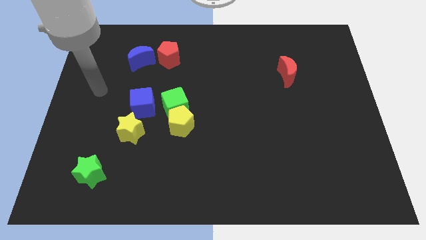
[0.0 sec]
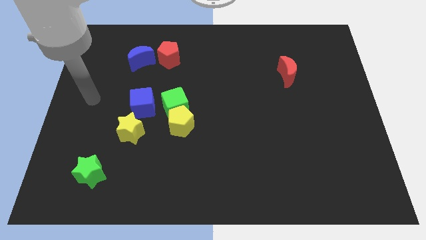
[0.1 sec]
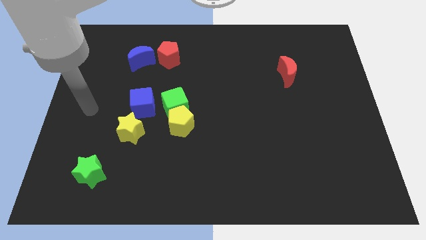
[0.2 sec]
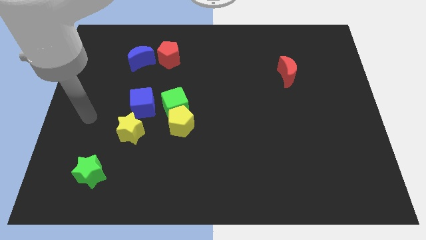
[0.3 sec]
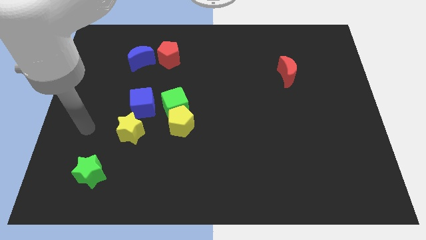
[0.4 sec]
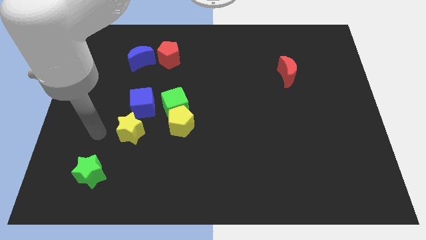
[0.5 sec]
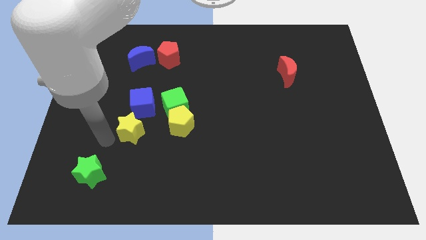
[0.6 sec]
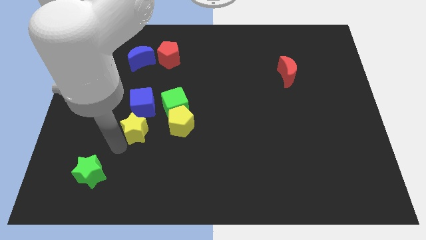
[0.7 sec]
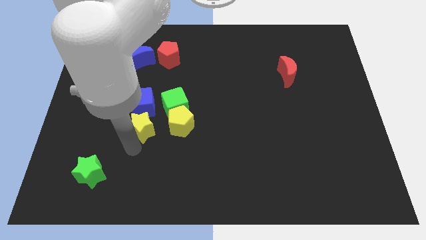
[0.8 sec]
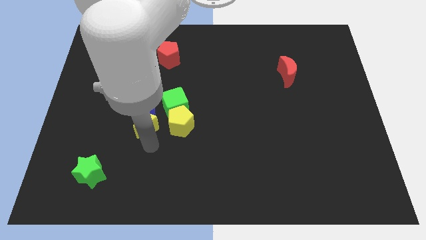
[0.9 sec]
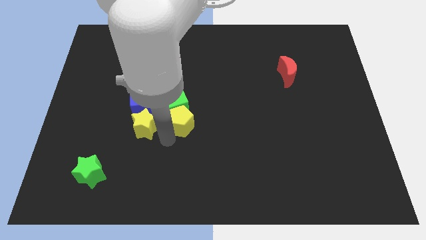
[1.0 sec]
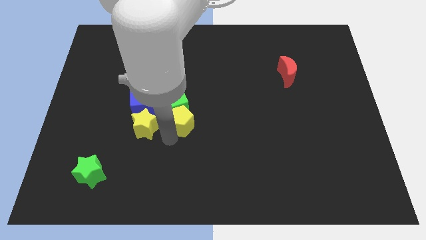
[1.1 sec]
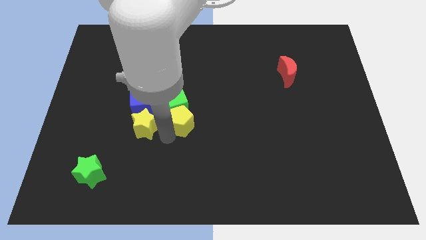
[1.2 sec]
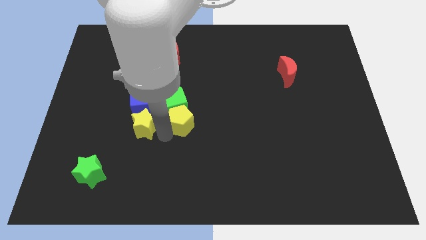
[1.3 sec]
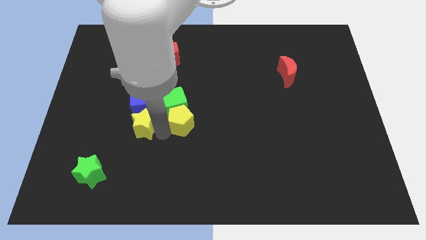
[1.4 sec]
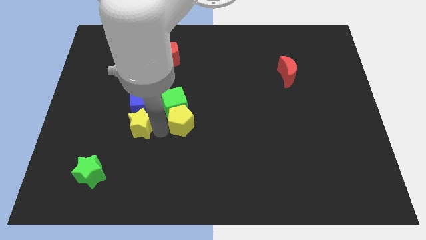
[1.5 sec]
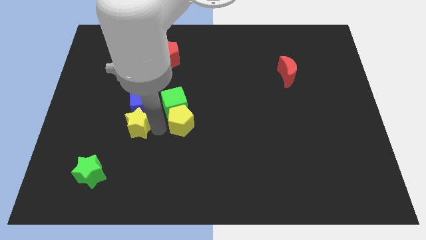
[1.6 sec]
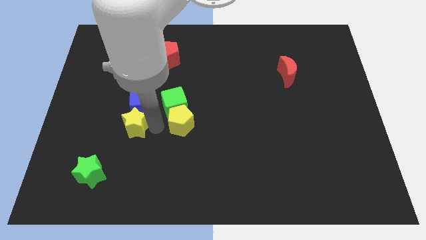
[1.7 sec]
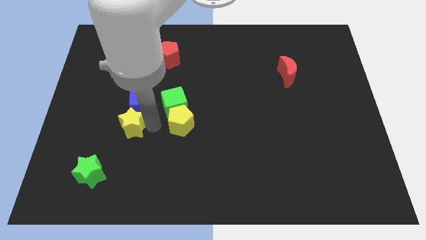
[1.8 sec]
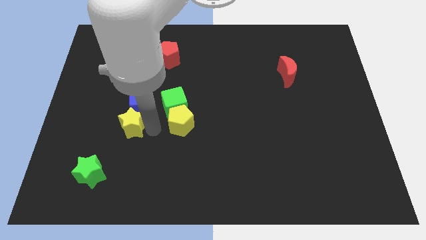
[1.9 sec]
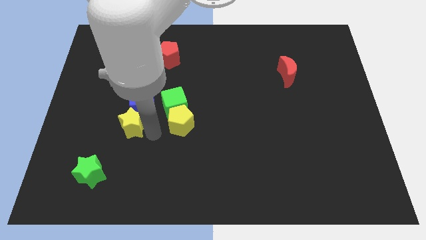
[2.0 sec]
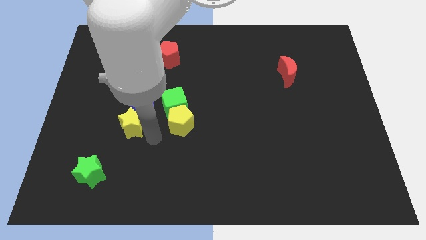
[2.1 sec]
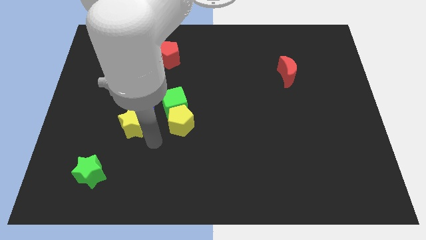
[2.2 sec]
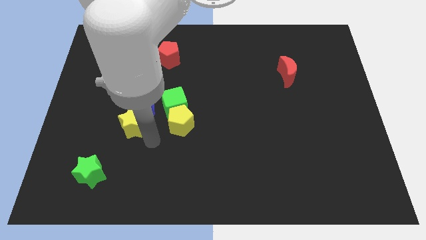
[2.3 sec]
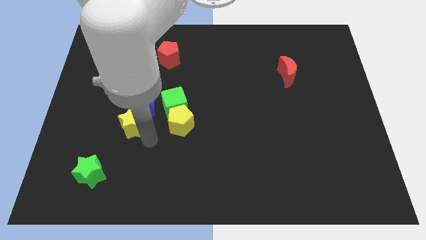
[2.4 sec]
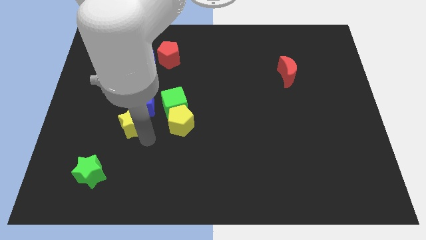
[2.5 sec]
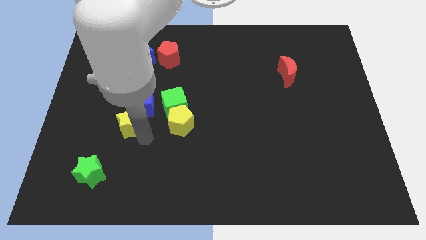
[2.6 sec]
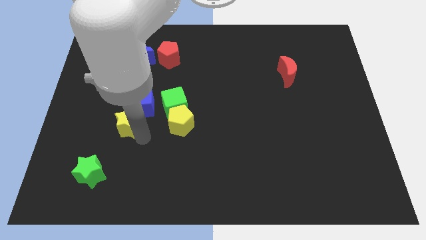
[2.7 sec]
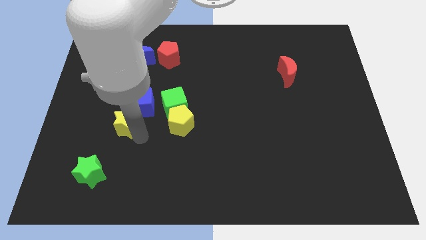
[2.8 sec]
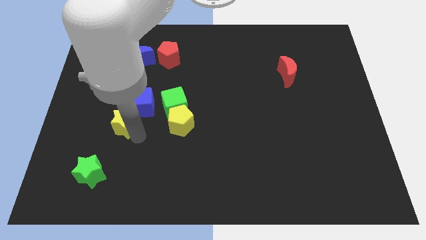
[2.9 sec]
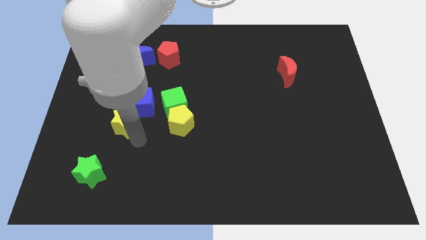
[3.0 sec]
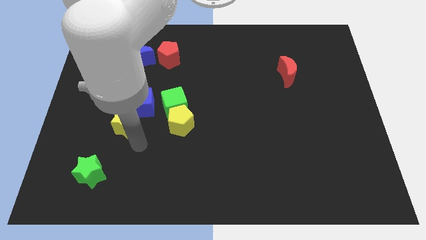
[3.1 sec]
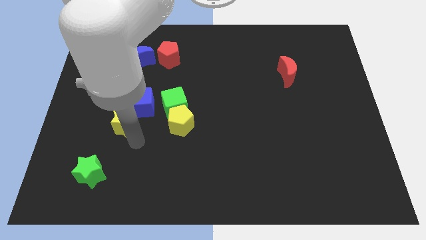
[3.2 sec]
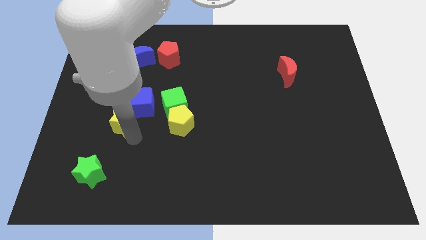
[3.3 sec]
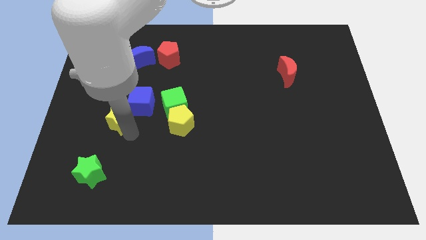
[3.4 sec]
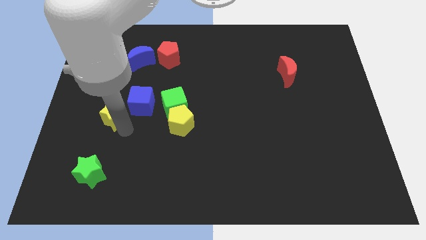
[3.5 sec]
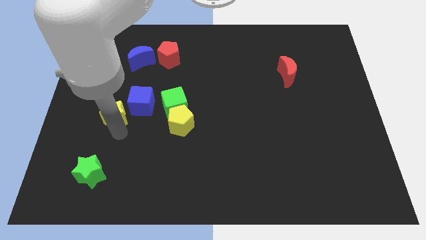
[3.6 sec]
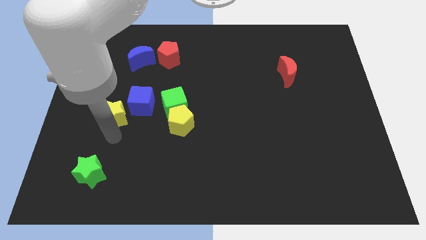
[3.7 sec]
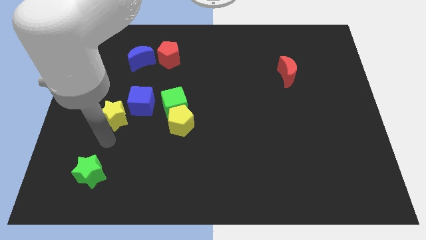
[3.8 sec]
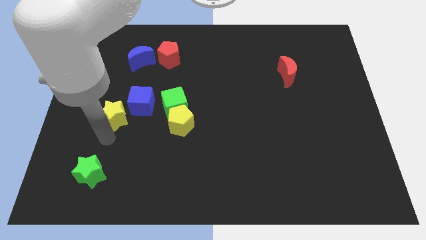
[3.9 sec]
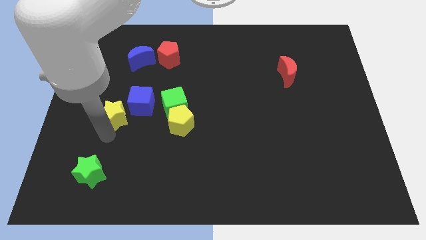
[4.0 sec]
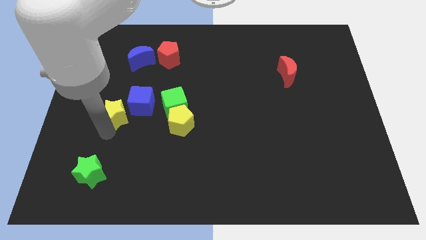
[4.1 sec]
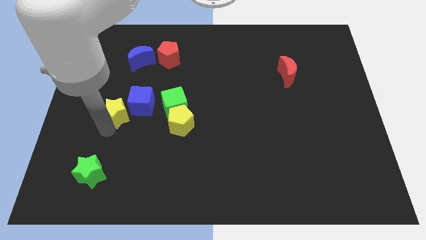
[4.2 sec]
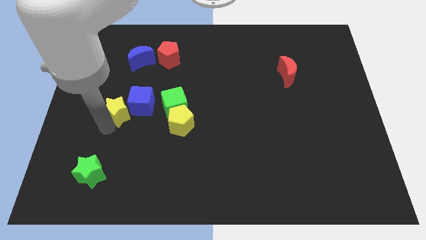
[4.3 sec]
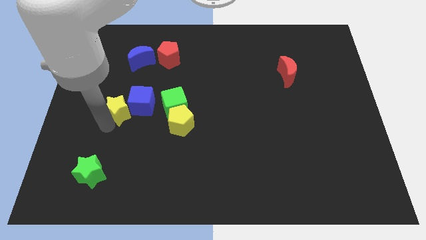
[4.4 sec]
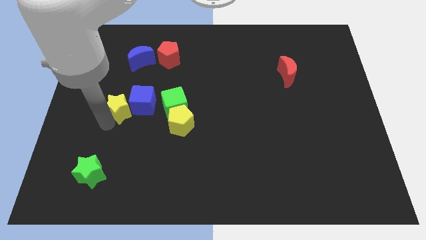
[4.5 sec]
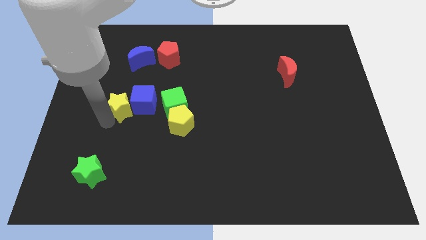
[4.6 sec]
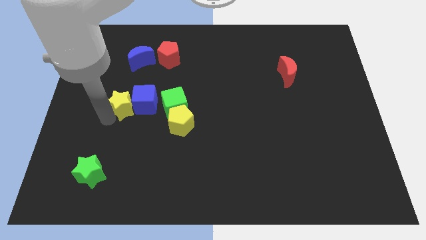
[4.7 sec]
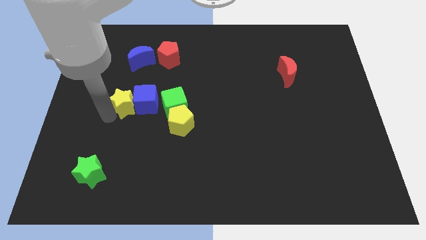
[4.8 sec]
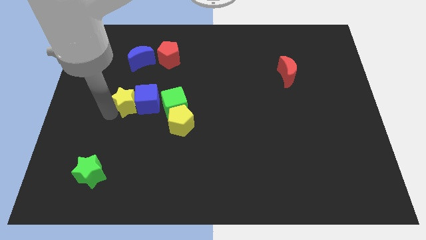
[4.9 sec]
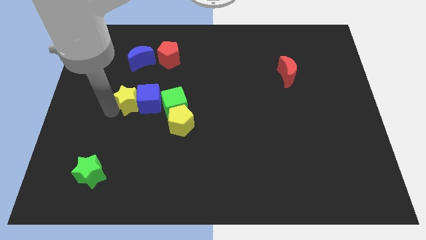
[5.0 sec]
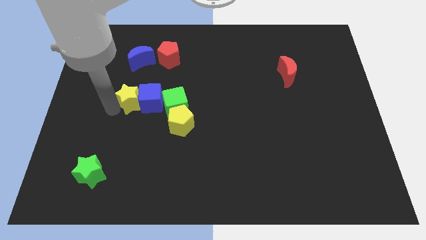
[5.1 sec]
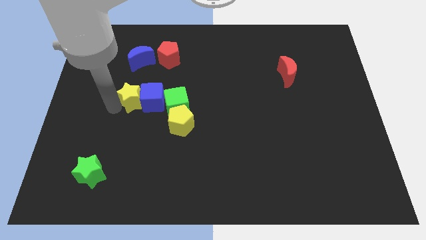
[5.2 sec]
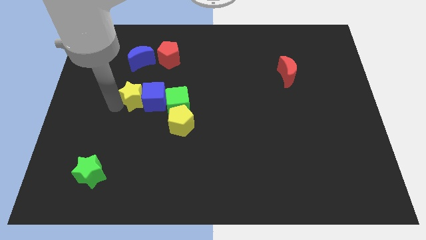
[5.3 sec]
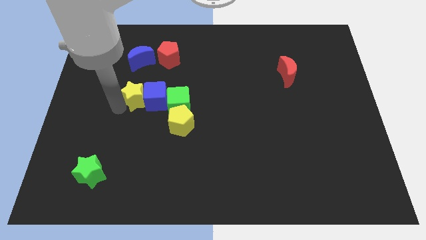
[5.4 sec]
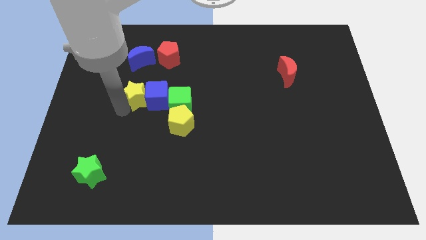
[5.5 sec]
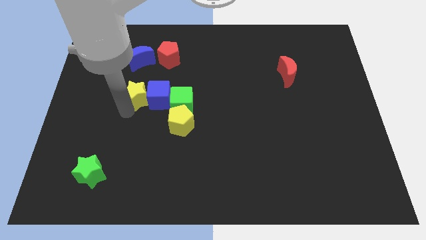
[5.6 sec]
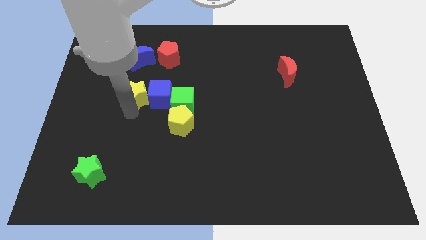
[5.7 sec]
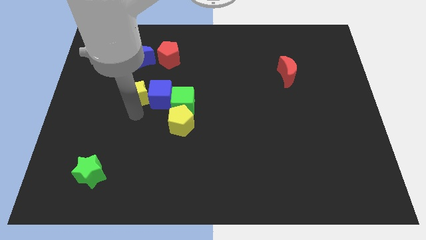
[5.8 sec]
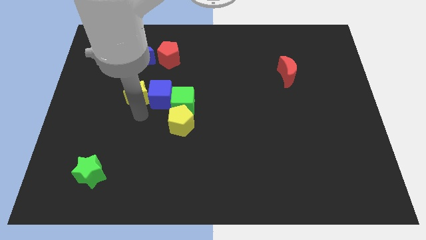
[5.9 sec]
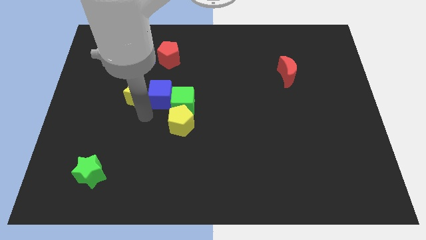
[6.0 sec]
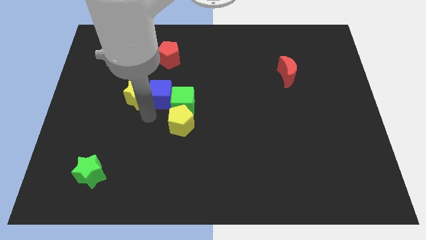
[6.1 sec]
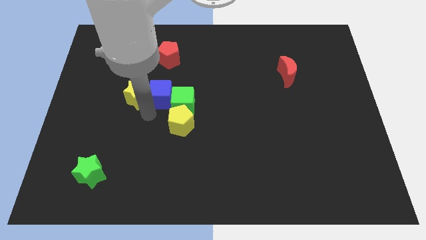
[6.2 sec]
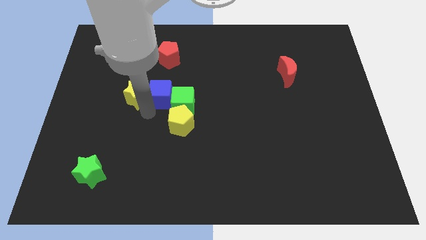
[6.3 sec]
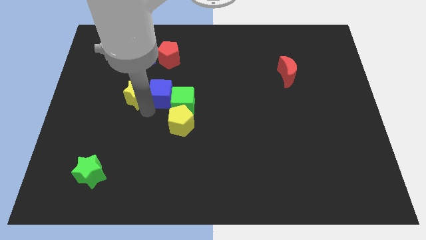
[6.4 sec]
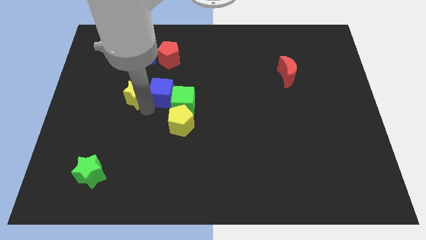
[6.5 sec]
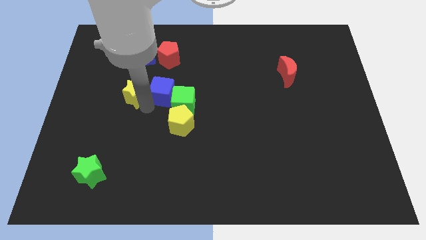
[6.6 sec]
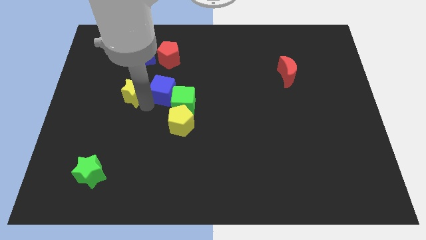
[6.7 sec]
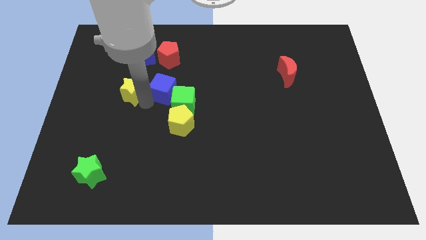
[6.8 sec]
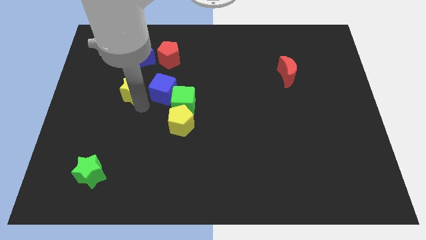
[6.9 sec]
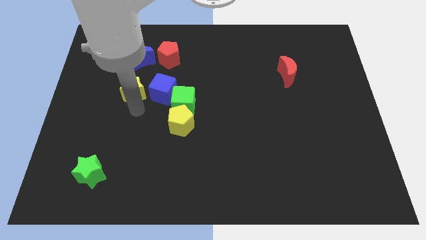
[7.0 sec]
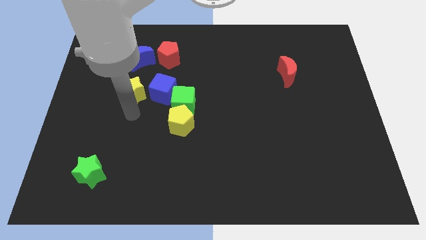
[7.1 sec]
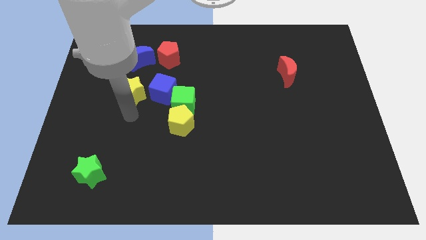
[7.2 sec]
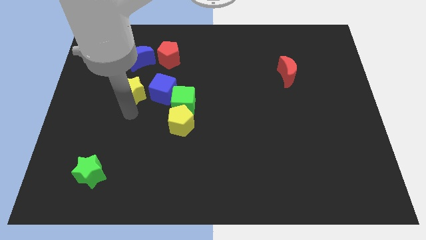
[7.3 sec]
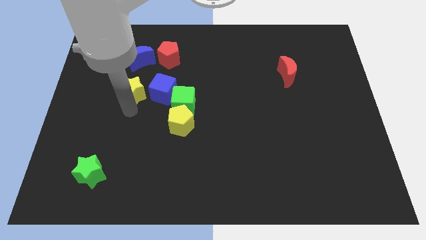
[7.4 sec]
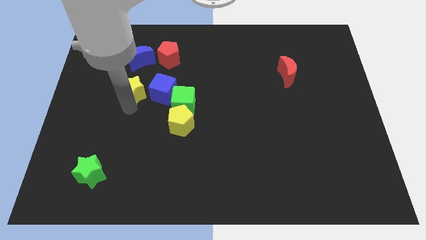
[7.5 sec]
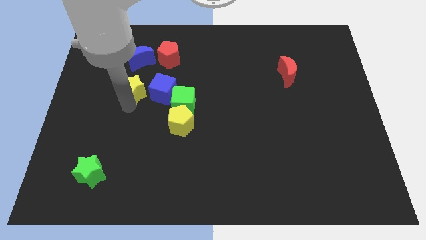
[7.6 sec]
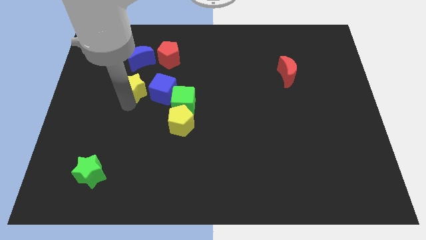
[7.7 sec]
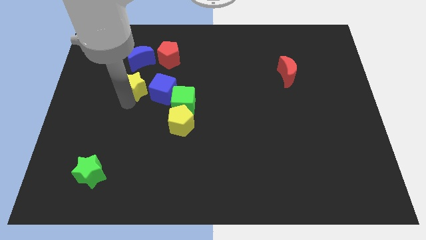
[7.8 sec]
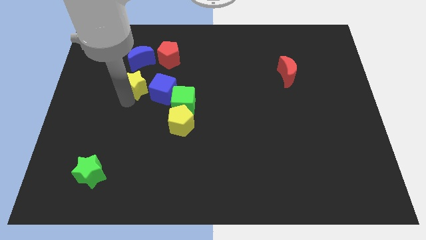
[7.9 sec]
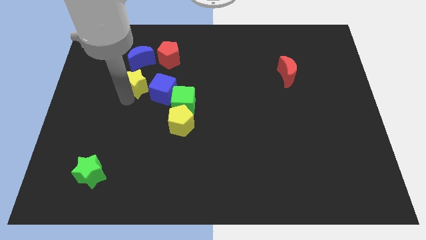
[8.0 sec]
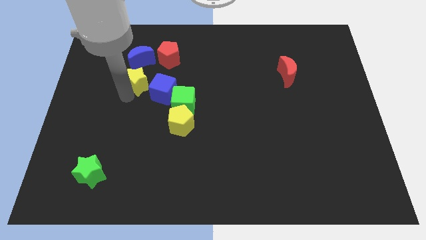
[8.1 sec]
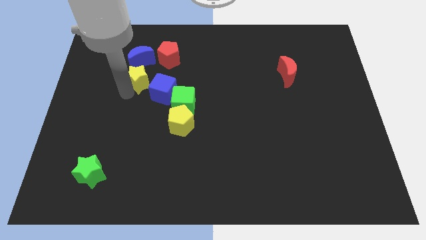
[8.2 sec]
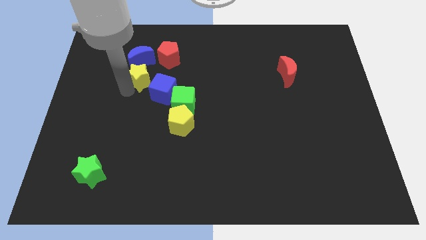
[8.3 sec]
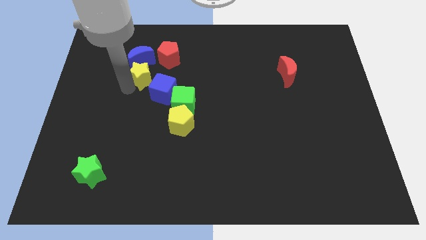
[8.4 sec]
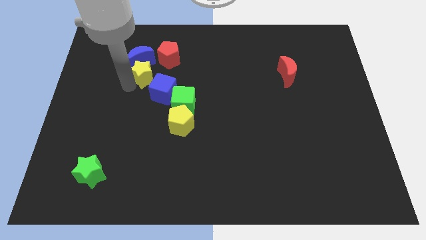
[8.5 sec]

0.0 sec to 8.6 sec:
push the yellow star next to the blue moon
